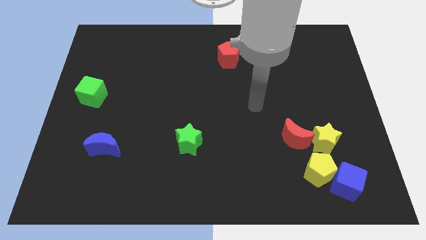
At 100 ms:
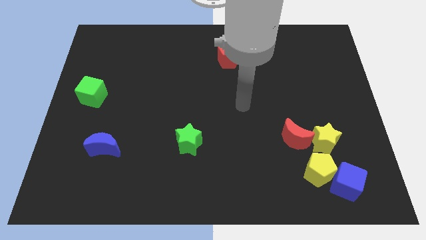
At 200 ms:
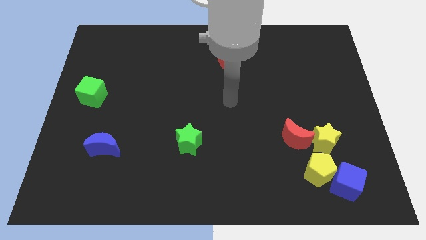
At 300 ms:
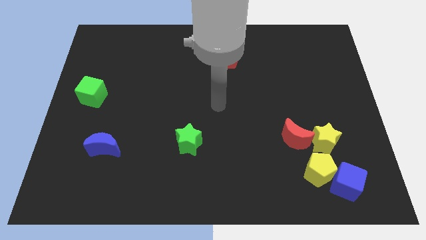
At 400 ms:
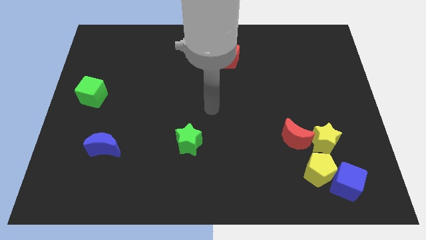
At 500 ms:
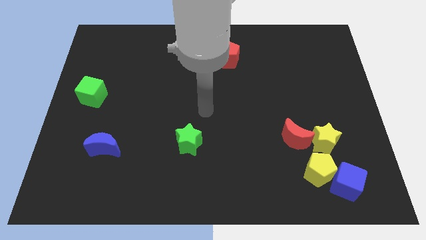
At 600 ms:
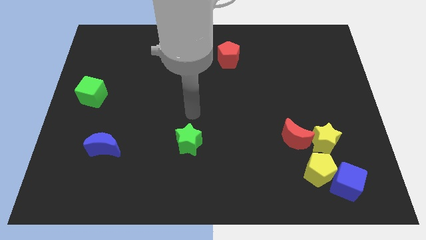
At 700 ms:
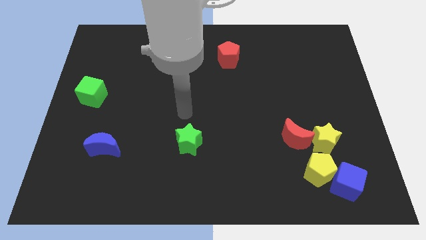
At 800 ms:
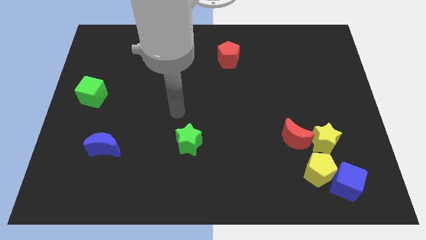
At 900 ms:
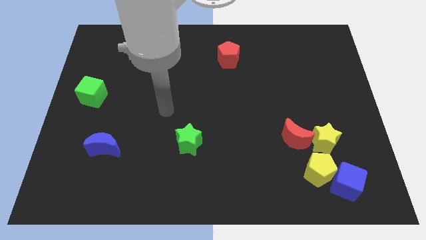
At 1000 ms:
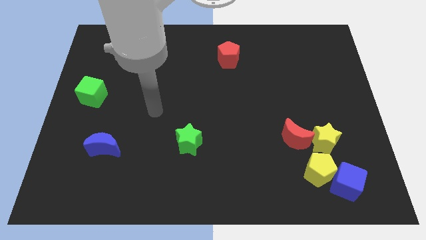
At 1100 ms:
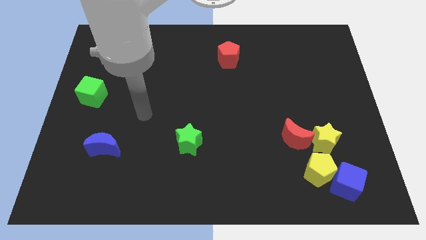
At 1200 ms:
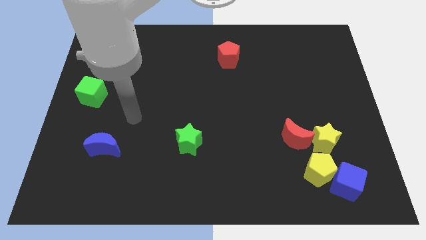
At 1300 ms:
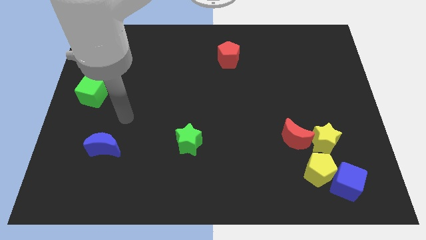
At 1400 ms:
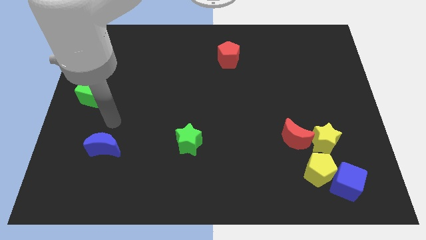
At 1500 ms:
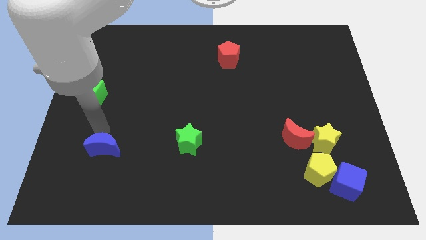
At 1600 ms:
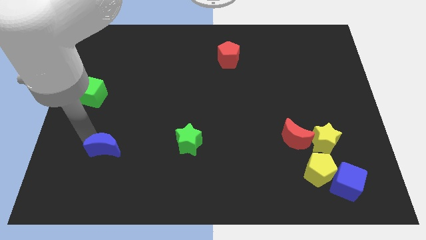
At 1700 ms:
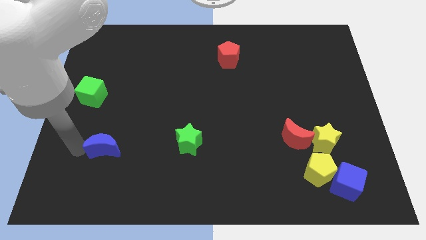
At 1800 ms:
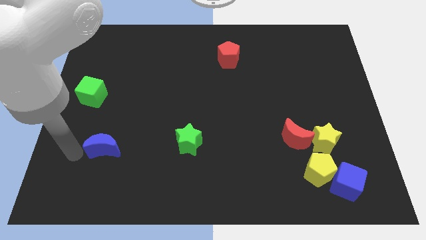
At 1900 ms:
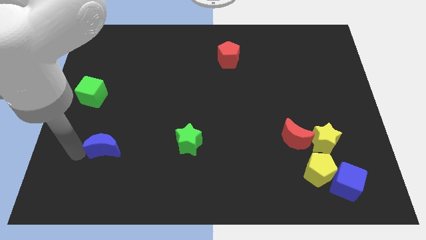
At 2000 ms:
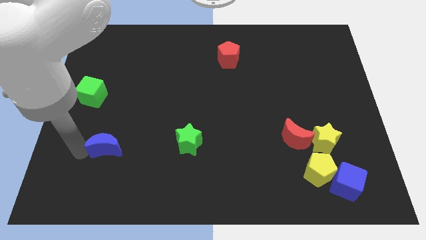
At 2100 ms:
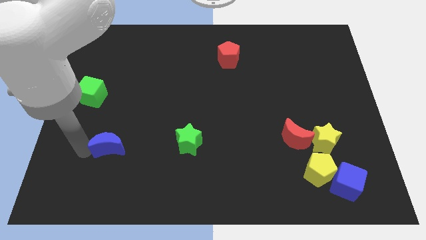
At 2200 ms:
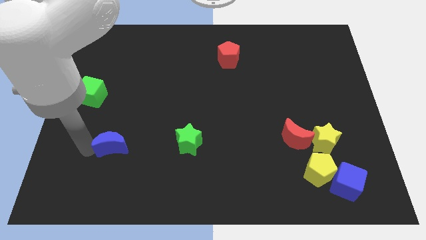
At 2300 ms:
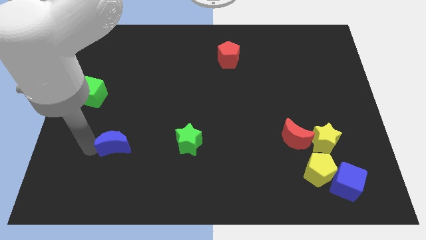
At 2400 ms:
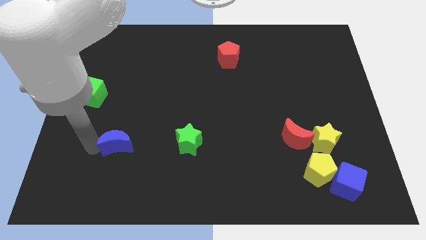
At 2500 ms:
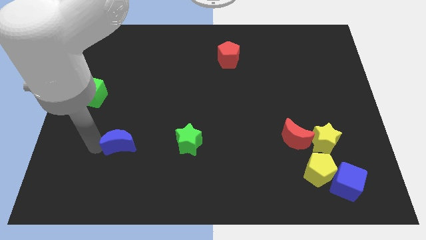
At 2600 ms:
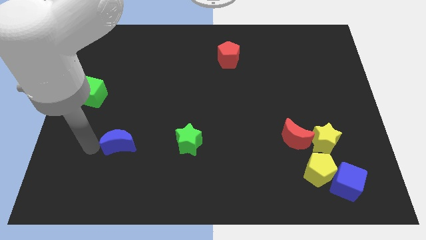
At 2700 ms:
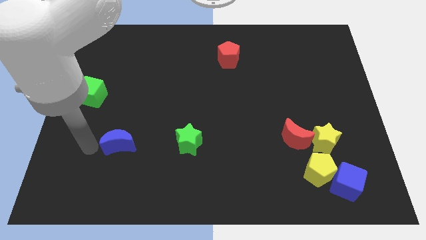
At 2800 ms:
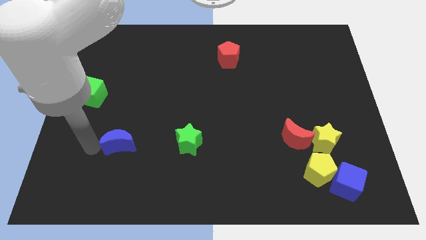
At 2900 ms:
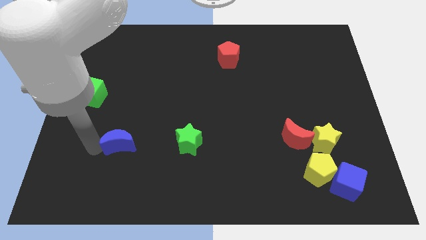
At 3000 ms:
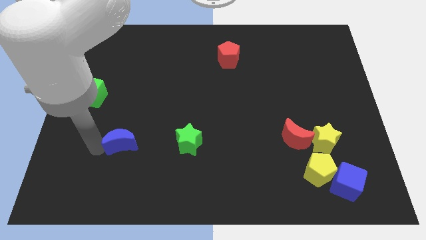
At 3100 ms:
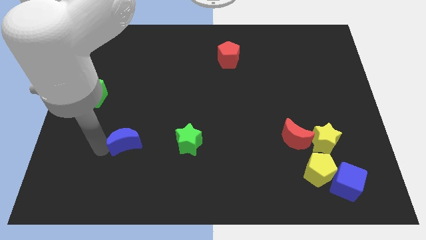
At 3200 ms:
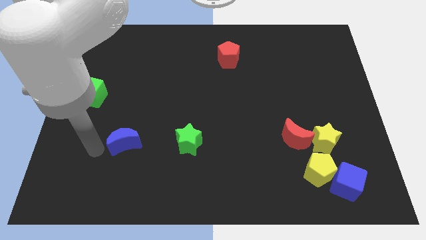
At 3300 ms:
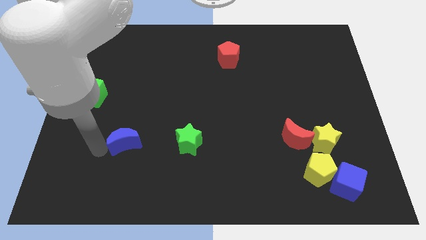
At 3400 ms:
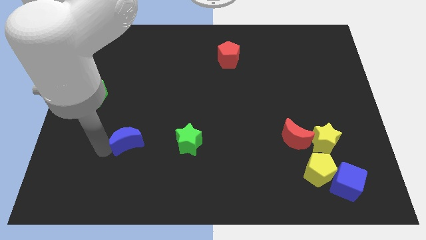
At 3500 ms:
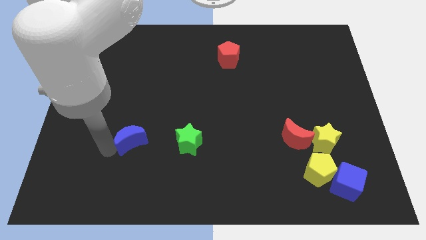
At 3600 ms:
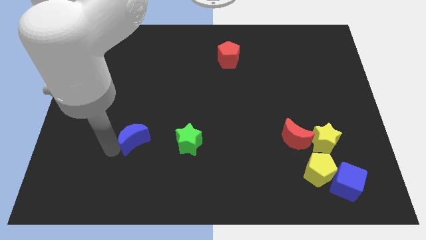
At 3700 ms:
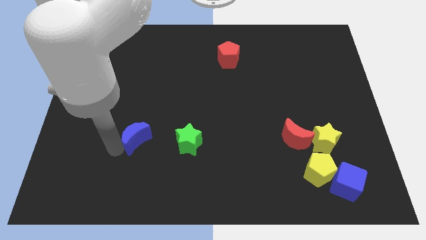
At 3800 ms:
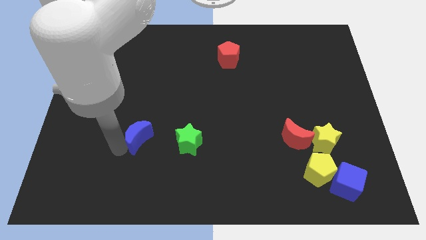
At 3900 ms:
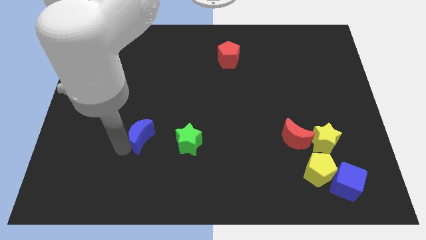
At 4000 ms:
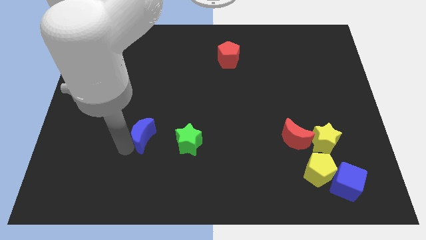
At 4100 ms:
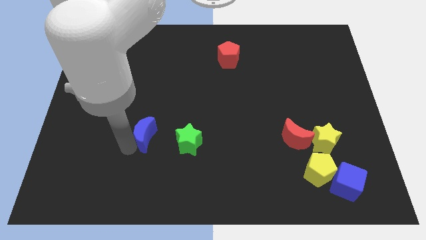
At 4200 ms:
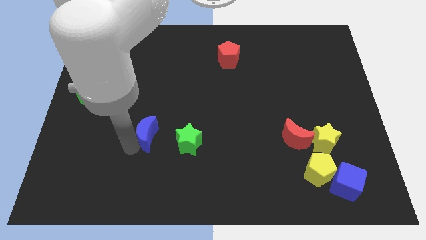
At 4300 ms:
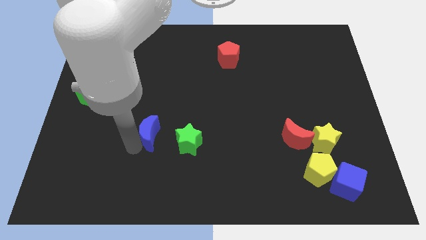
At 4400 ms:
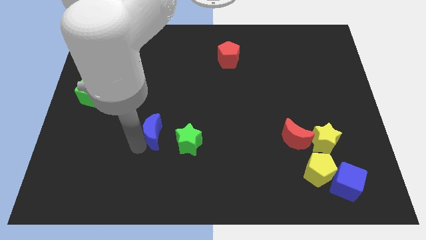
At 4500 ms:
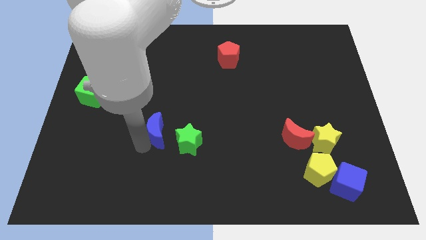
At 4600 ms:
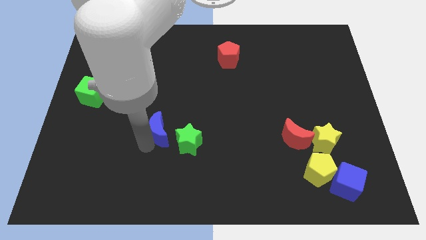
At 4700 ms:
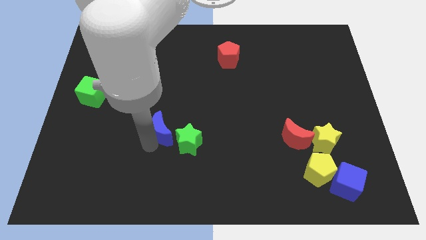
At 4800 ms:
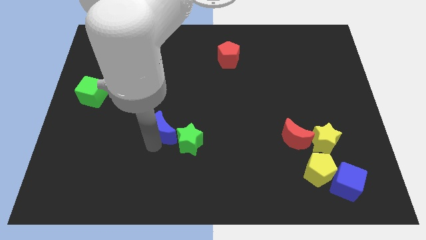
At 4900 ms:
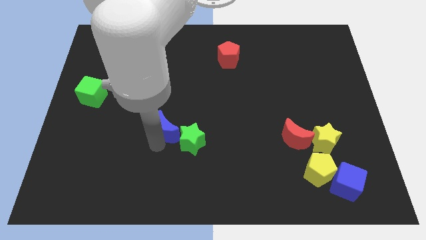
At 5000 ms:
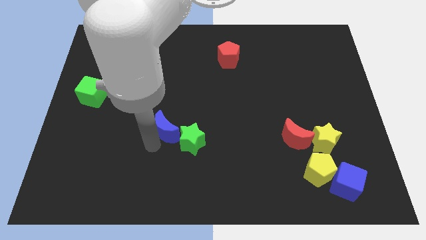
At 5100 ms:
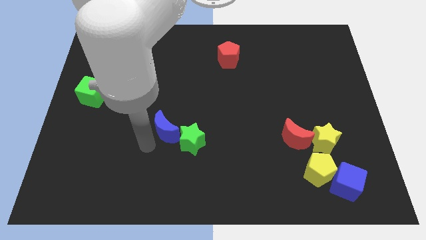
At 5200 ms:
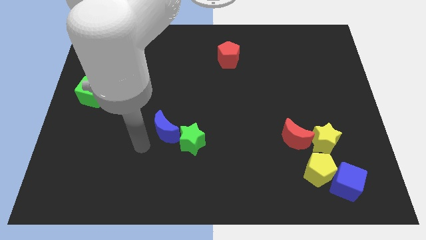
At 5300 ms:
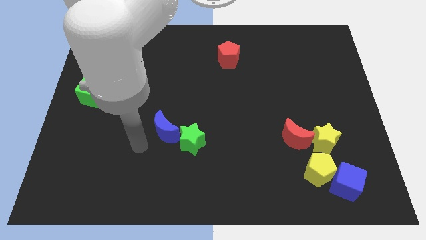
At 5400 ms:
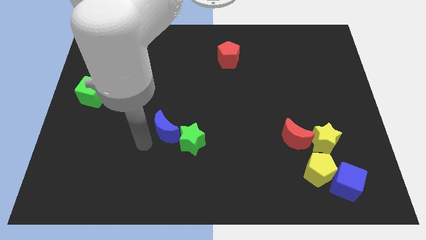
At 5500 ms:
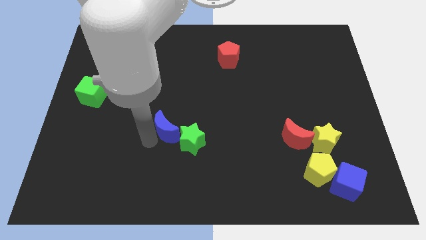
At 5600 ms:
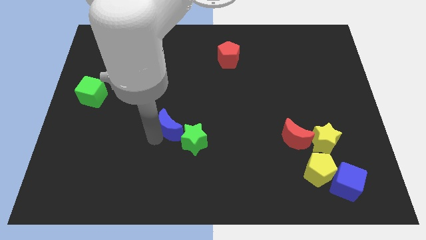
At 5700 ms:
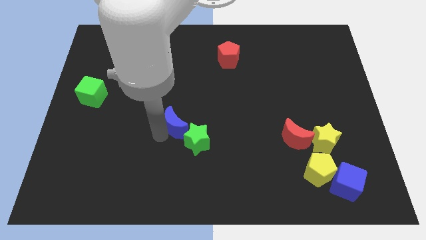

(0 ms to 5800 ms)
push the blue moon to the middle
